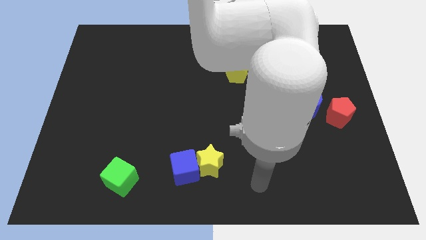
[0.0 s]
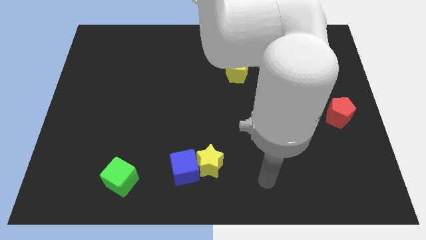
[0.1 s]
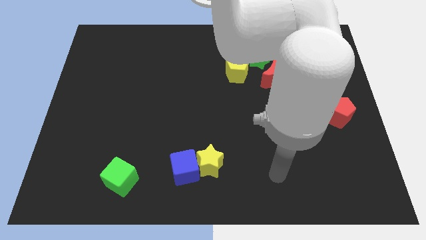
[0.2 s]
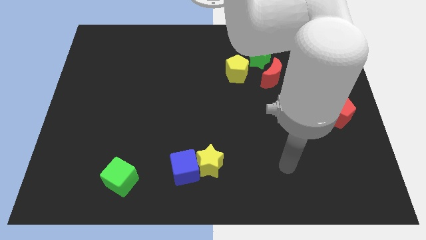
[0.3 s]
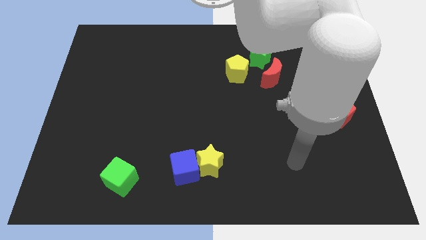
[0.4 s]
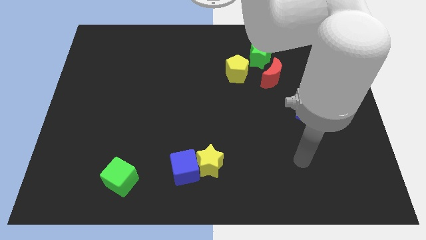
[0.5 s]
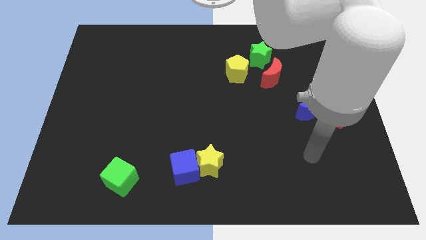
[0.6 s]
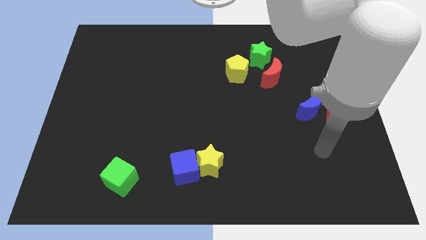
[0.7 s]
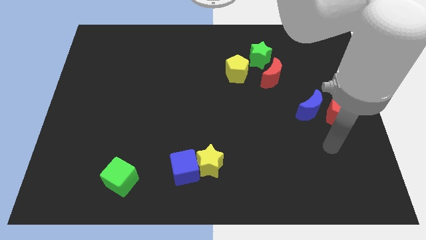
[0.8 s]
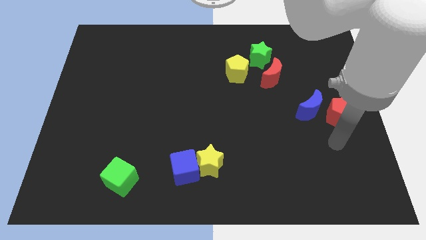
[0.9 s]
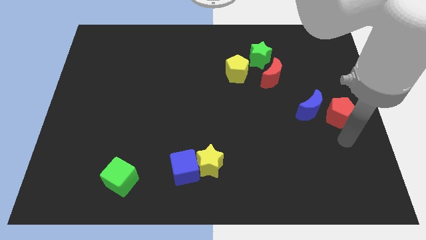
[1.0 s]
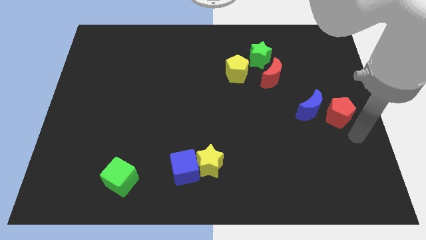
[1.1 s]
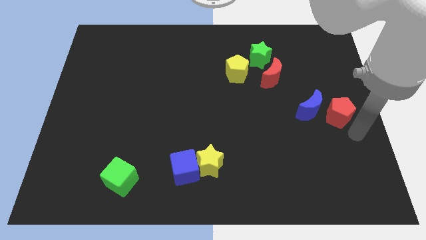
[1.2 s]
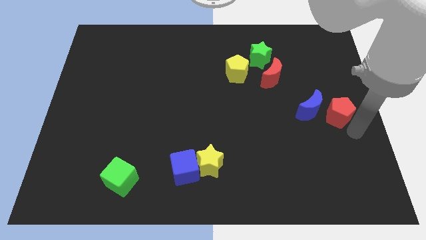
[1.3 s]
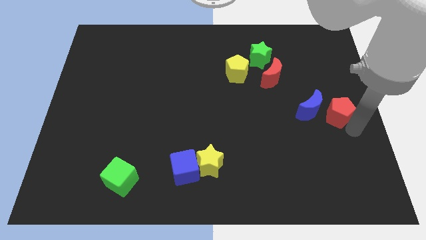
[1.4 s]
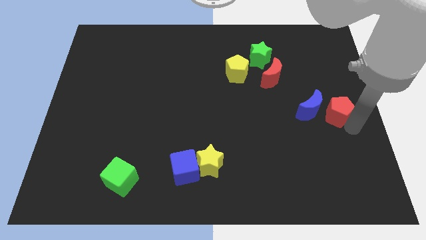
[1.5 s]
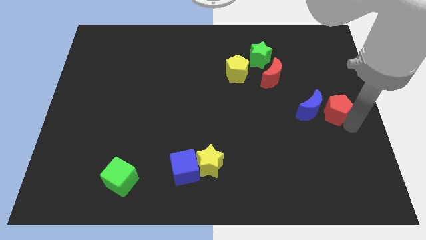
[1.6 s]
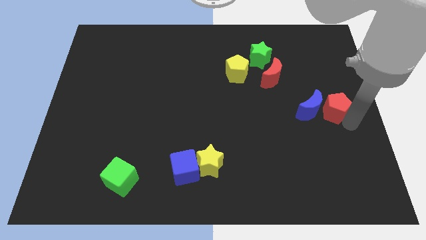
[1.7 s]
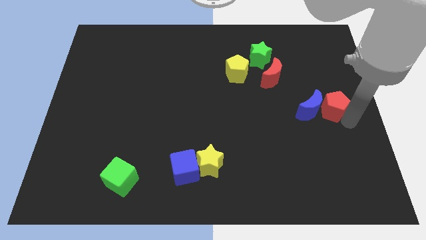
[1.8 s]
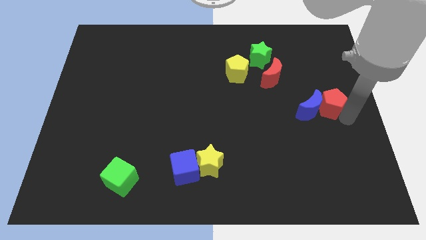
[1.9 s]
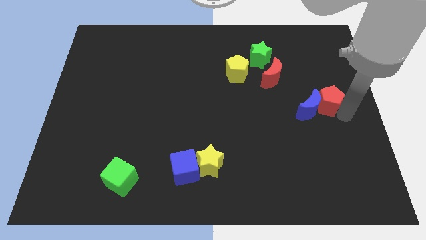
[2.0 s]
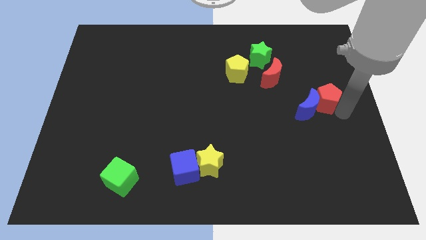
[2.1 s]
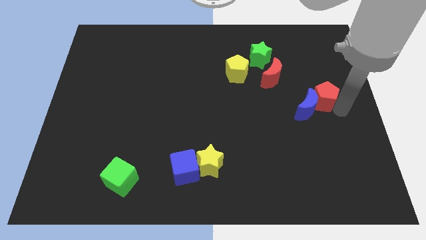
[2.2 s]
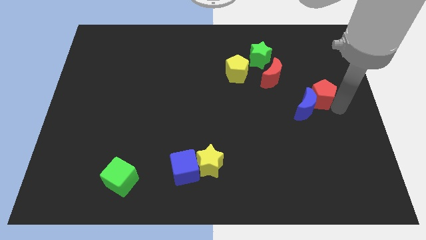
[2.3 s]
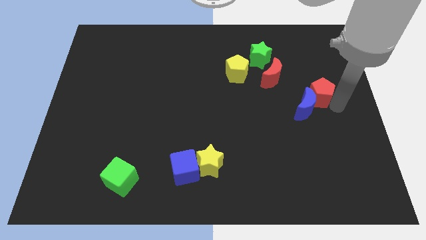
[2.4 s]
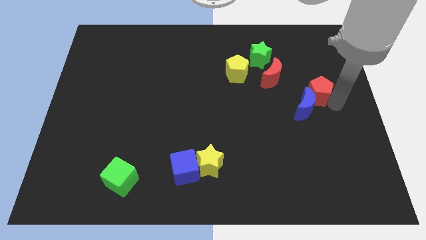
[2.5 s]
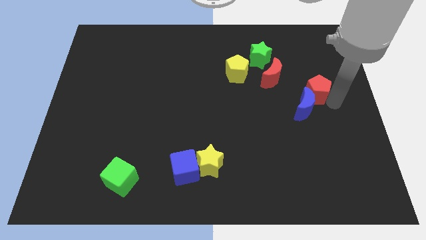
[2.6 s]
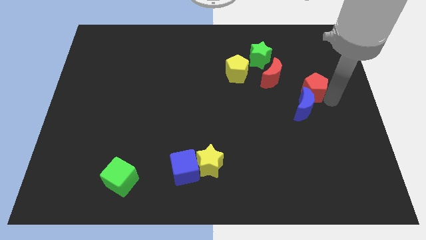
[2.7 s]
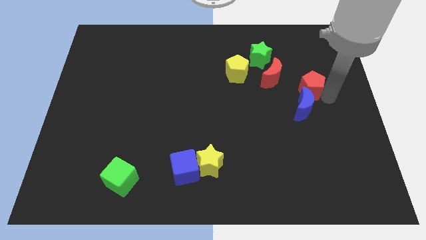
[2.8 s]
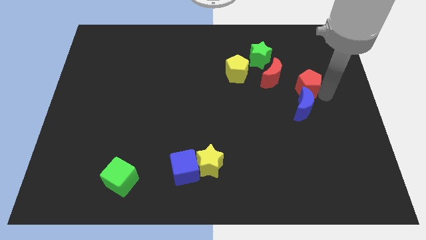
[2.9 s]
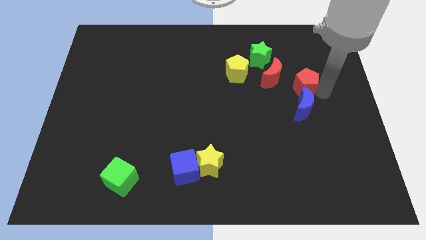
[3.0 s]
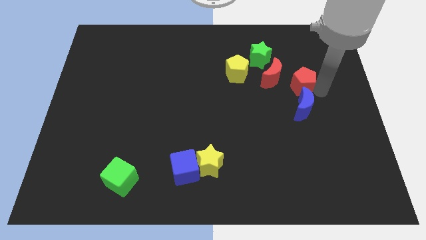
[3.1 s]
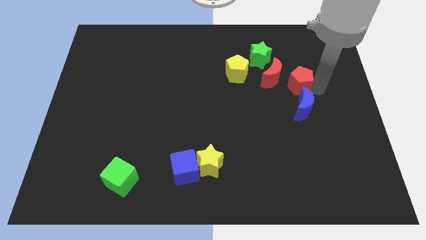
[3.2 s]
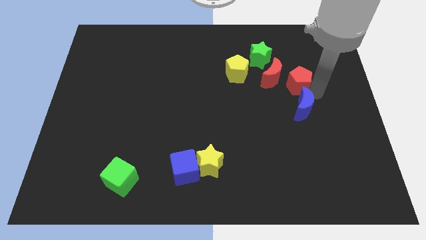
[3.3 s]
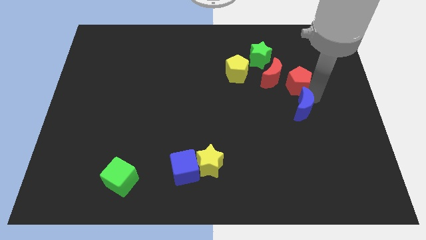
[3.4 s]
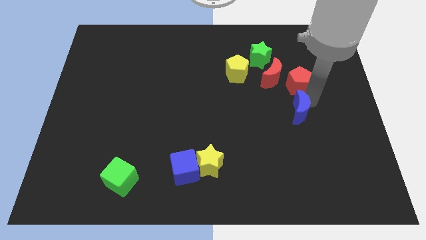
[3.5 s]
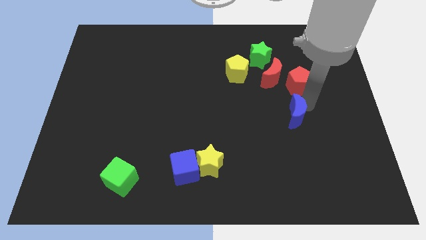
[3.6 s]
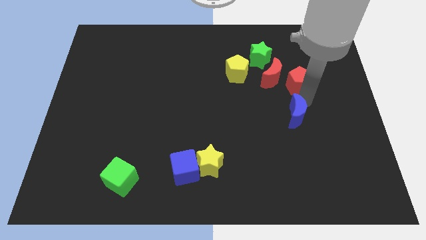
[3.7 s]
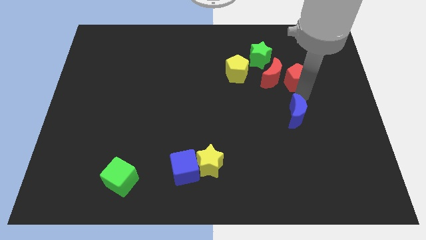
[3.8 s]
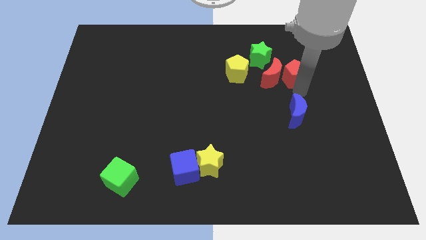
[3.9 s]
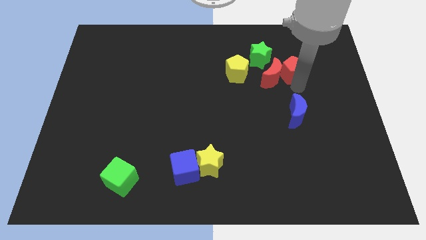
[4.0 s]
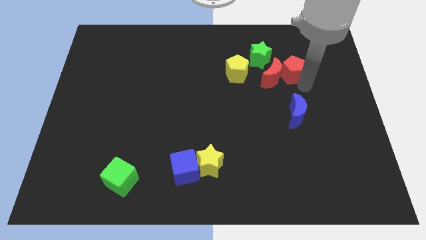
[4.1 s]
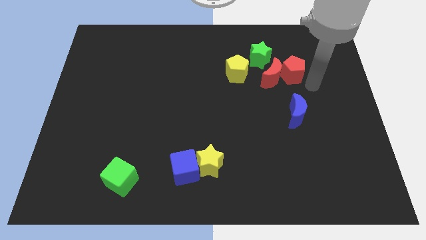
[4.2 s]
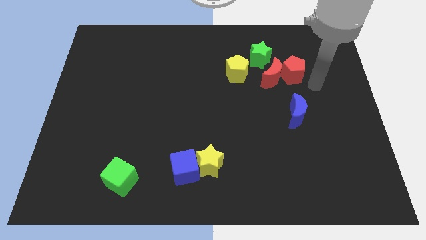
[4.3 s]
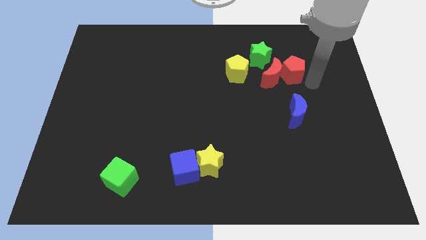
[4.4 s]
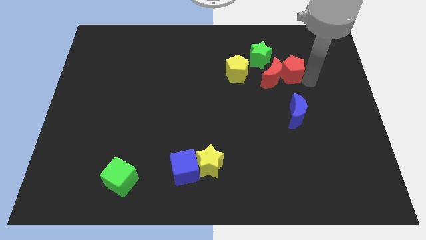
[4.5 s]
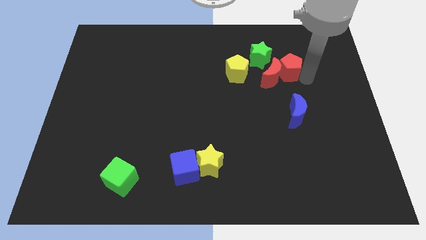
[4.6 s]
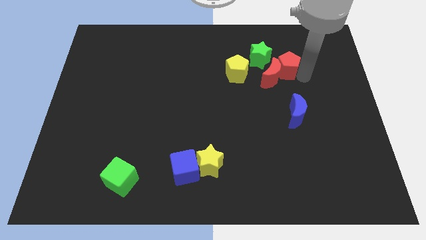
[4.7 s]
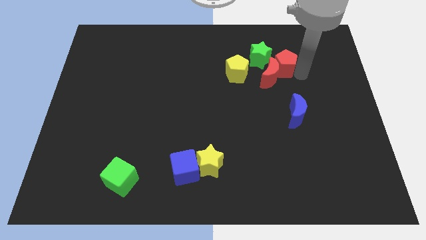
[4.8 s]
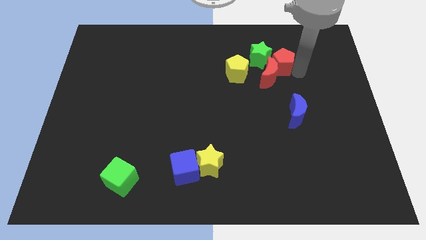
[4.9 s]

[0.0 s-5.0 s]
slide the red pentagon towards the green star

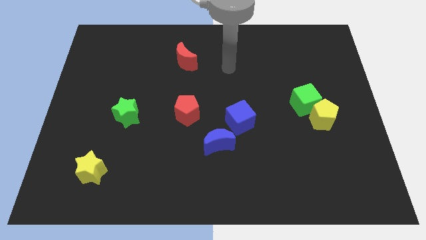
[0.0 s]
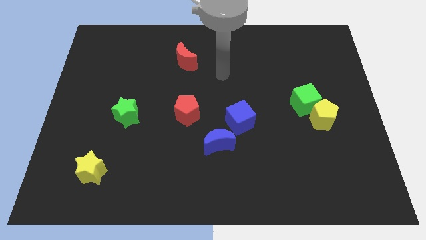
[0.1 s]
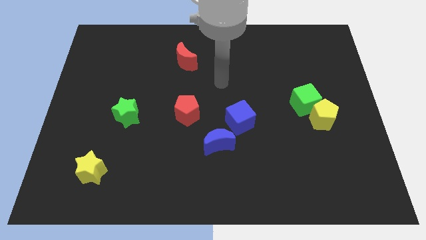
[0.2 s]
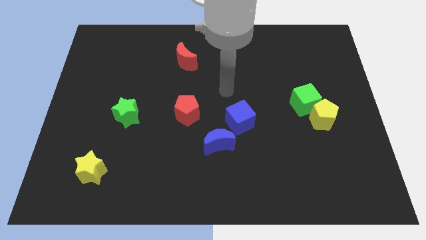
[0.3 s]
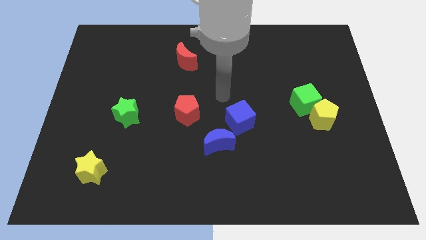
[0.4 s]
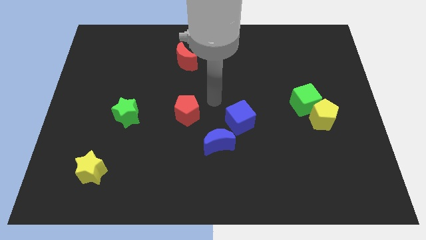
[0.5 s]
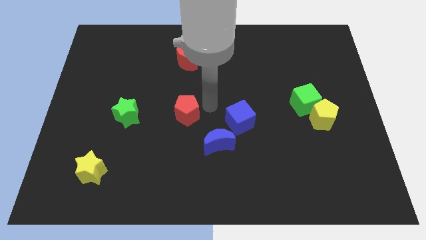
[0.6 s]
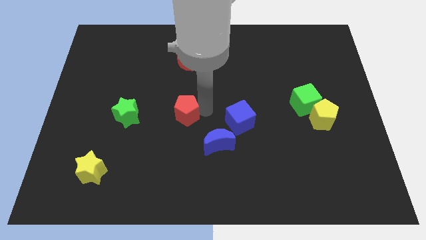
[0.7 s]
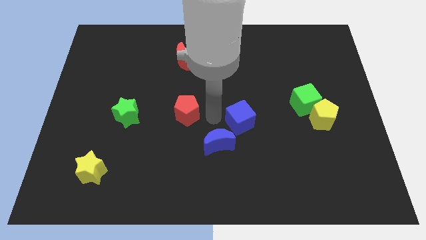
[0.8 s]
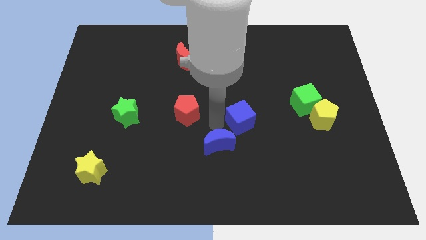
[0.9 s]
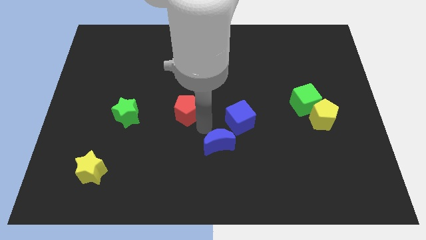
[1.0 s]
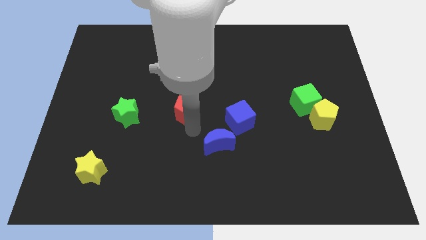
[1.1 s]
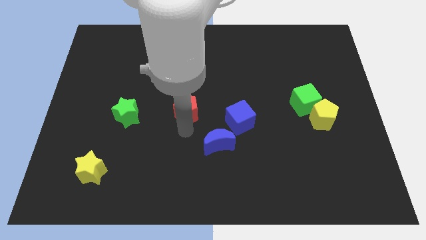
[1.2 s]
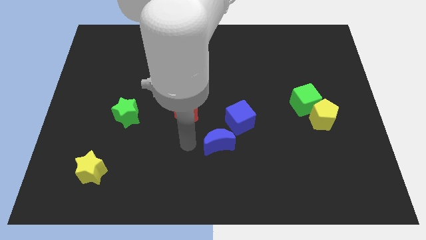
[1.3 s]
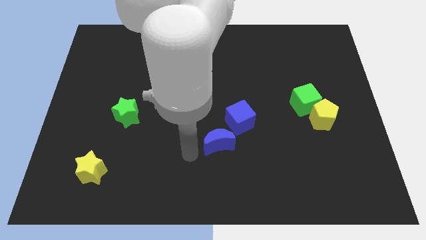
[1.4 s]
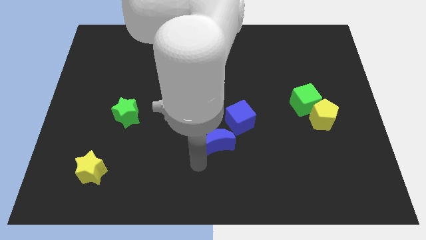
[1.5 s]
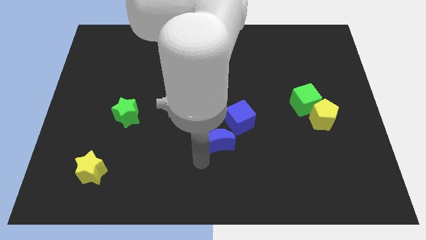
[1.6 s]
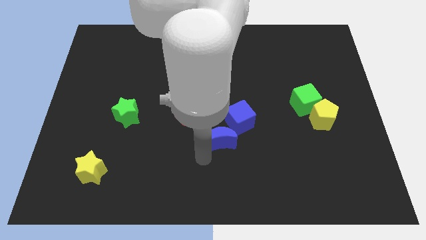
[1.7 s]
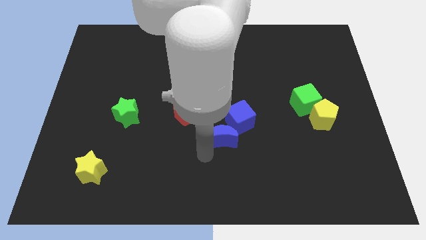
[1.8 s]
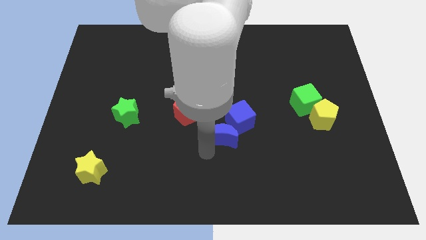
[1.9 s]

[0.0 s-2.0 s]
slide the blue moon close to the blue cube
